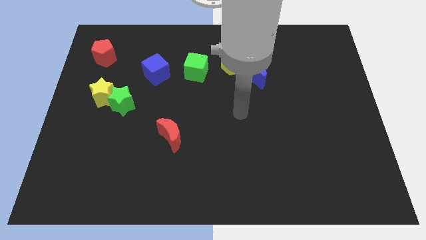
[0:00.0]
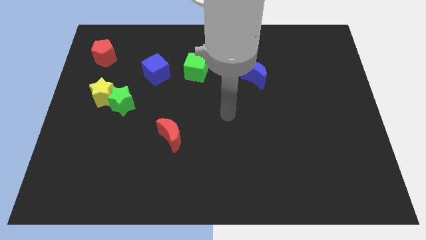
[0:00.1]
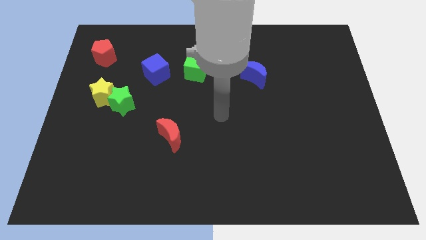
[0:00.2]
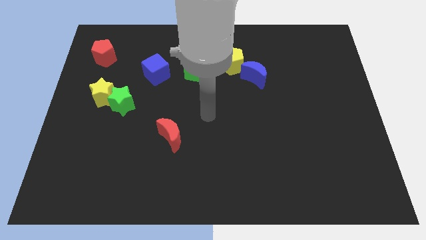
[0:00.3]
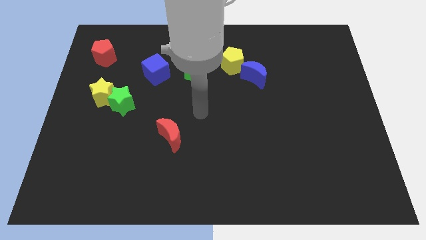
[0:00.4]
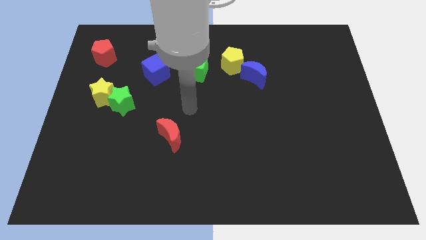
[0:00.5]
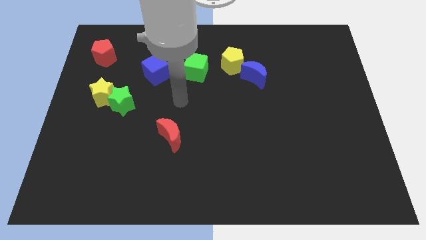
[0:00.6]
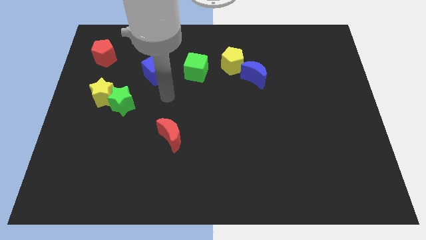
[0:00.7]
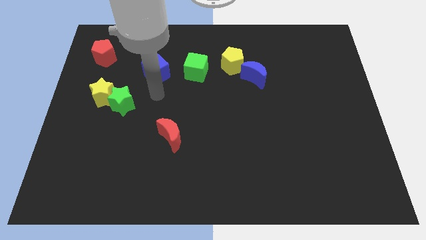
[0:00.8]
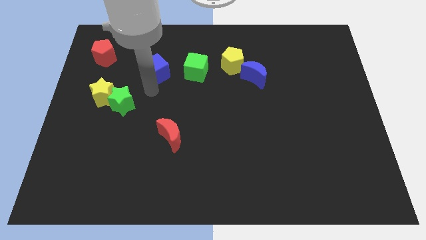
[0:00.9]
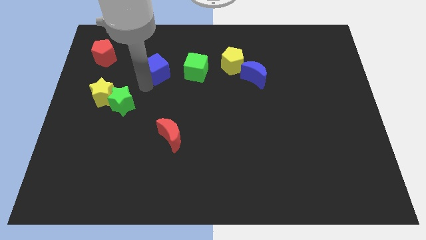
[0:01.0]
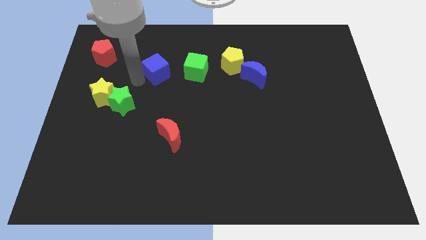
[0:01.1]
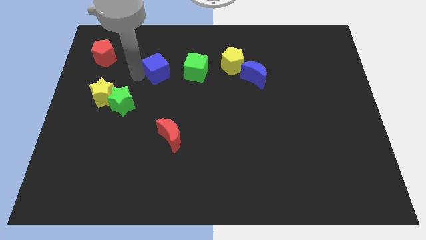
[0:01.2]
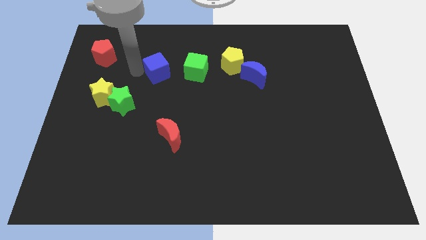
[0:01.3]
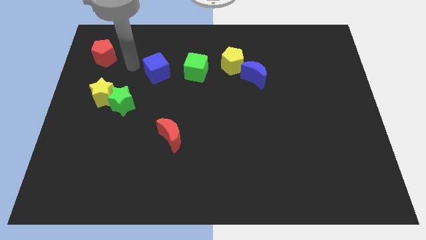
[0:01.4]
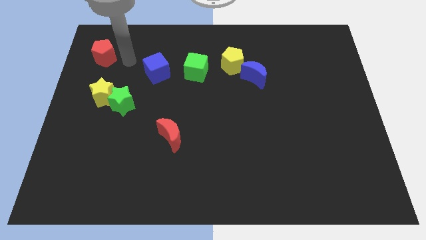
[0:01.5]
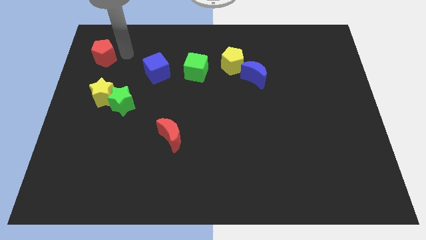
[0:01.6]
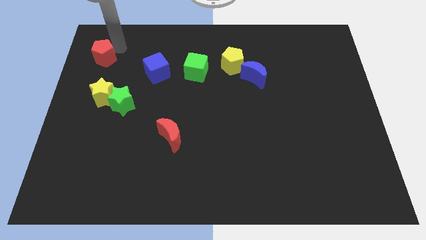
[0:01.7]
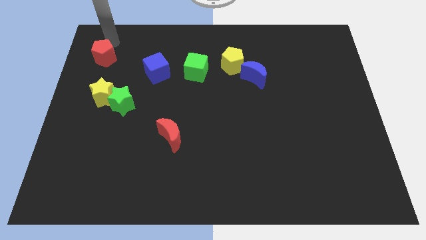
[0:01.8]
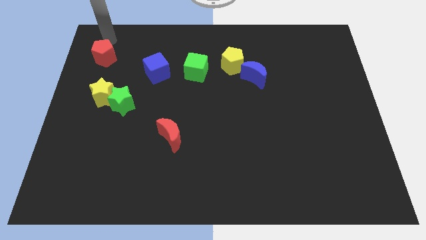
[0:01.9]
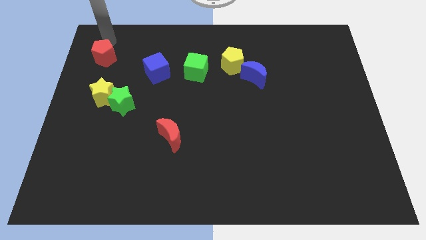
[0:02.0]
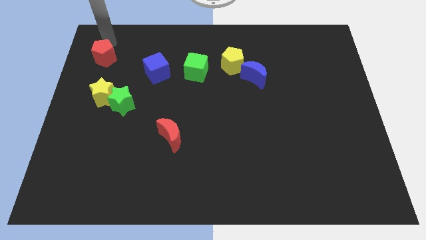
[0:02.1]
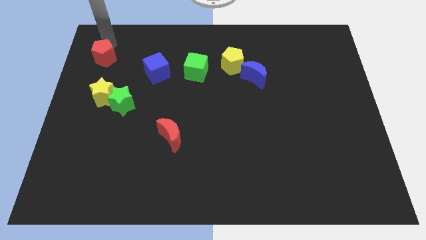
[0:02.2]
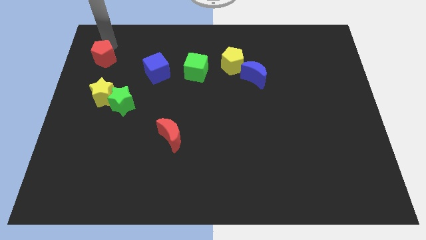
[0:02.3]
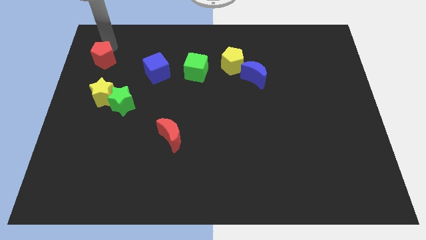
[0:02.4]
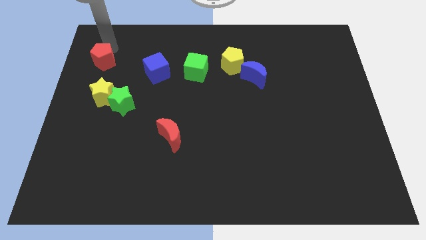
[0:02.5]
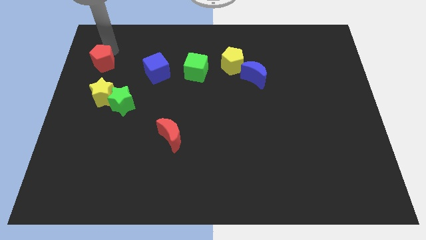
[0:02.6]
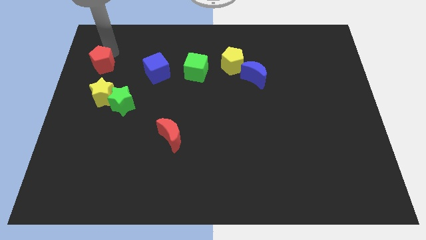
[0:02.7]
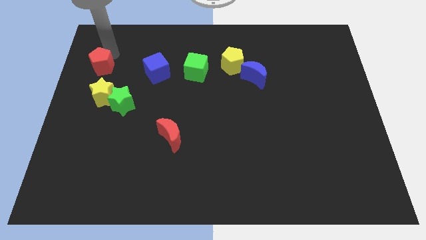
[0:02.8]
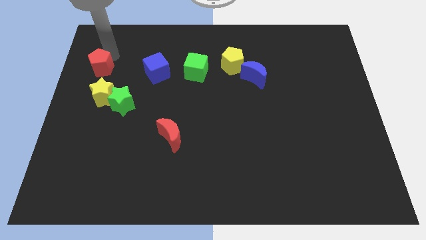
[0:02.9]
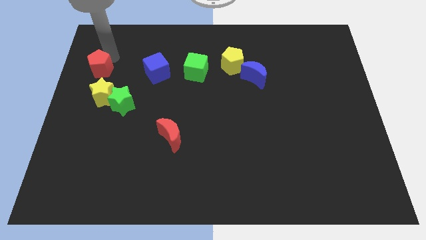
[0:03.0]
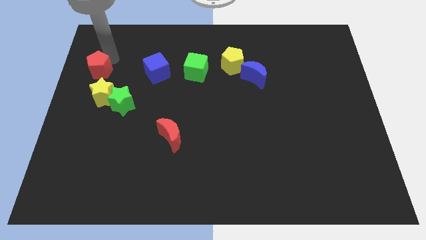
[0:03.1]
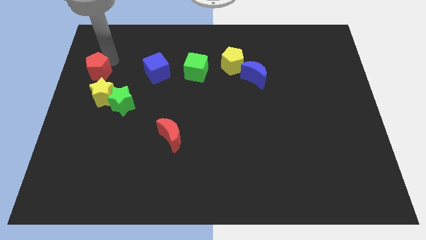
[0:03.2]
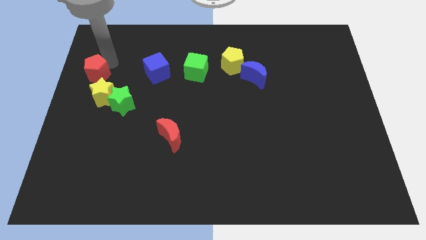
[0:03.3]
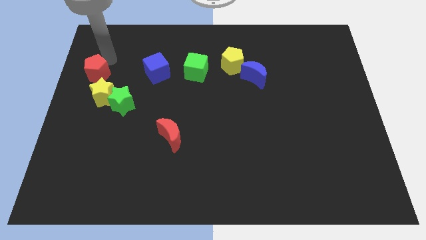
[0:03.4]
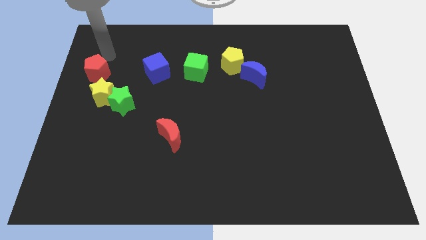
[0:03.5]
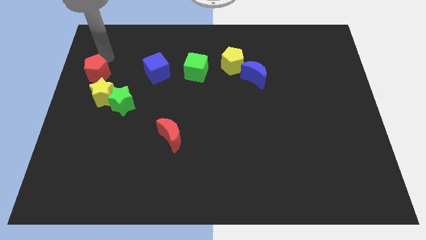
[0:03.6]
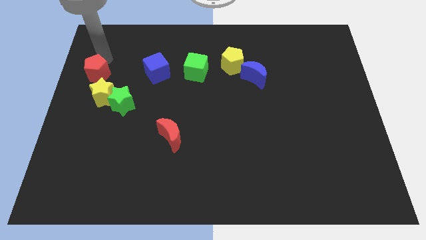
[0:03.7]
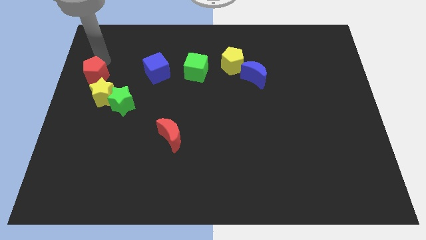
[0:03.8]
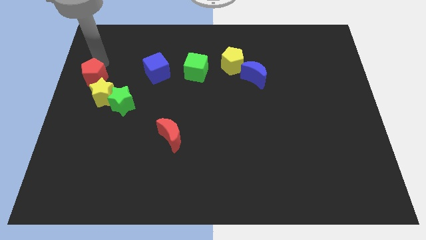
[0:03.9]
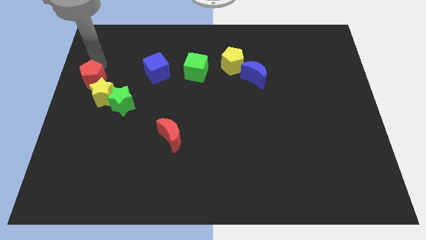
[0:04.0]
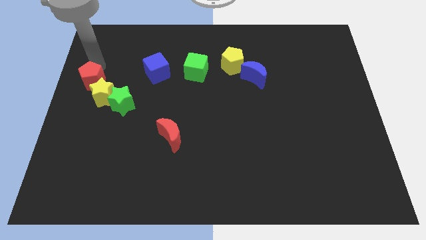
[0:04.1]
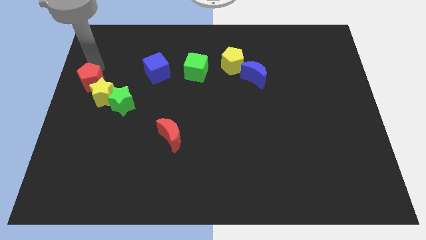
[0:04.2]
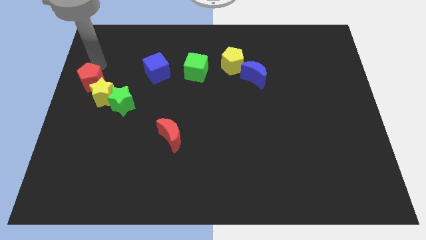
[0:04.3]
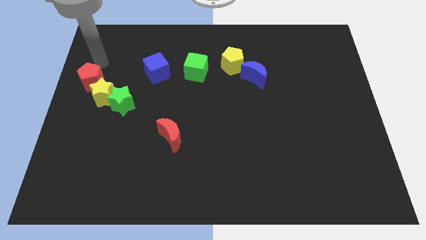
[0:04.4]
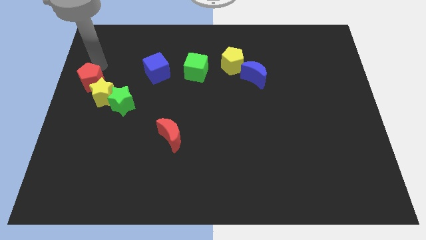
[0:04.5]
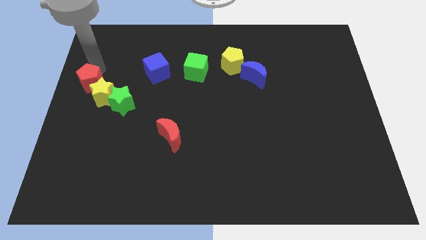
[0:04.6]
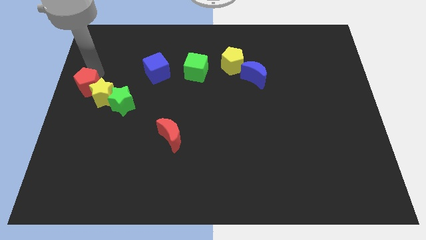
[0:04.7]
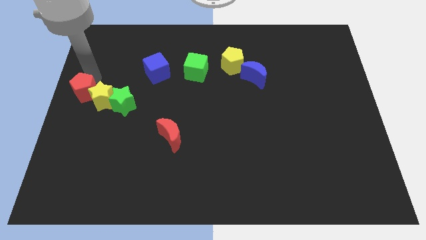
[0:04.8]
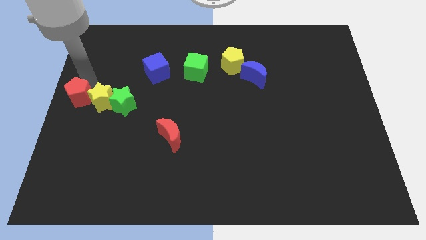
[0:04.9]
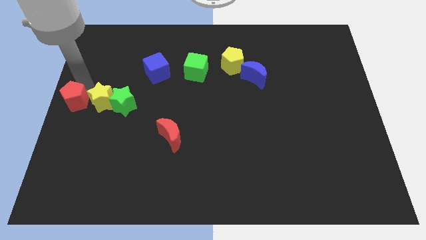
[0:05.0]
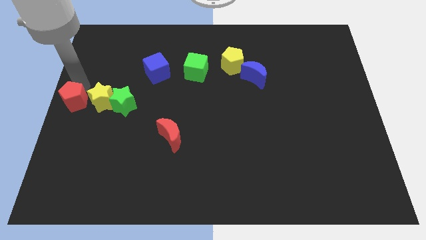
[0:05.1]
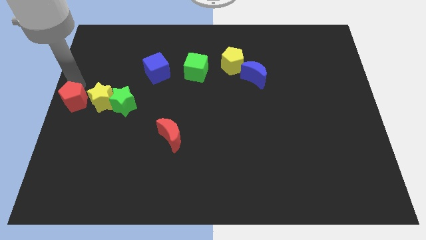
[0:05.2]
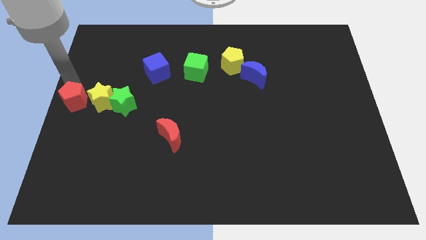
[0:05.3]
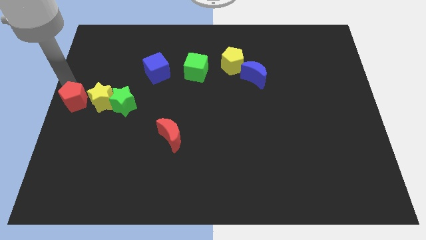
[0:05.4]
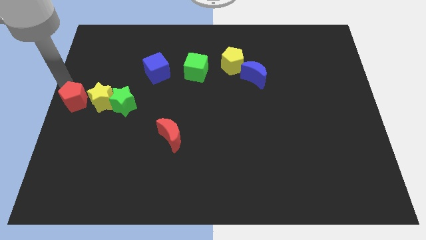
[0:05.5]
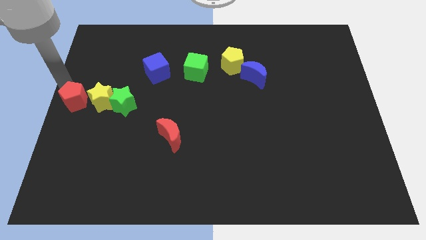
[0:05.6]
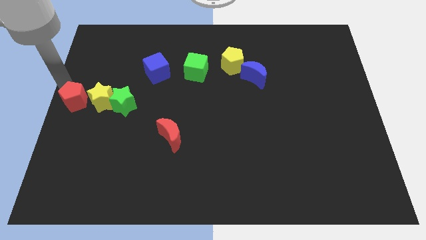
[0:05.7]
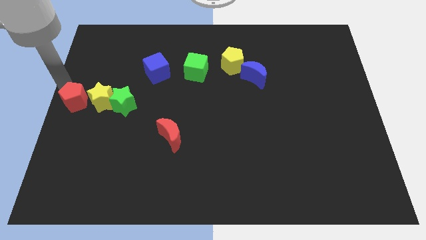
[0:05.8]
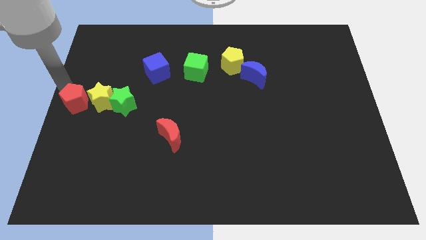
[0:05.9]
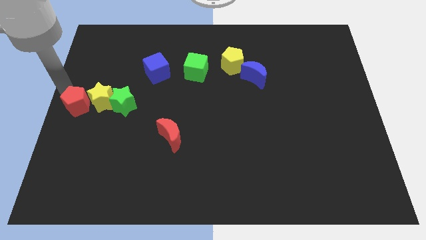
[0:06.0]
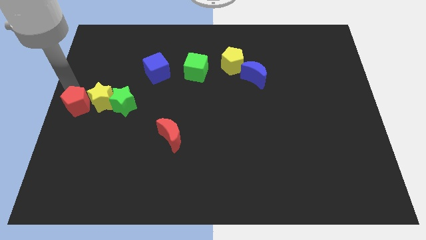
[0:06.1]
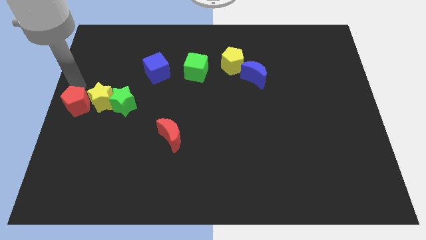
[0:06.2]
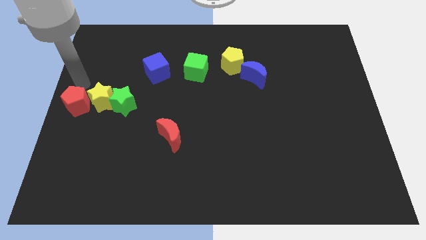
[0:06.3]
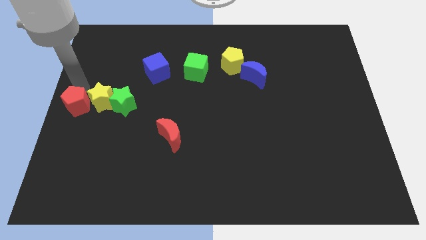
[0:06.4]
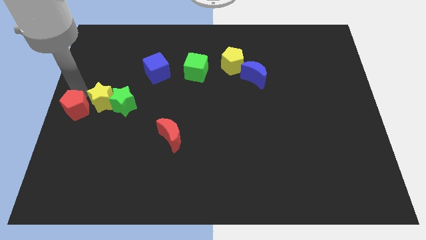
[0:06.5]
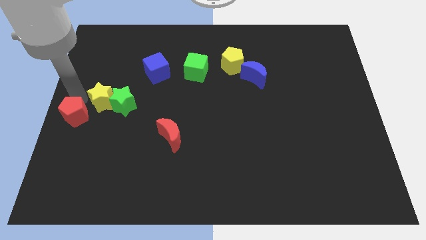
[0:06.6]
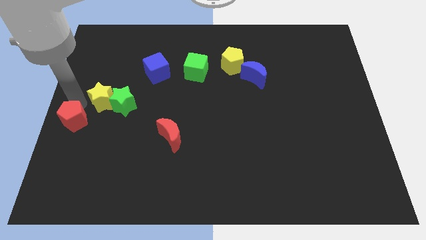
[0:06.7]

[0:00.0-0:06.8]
move the red pentagon down

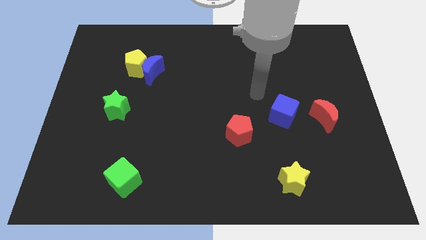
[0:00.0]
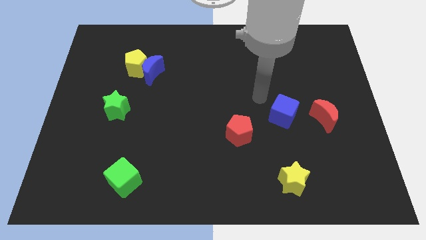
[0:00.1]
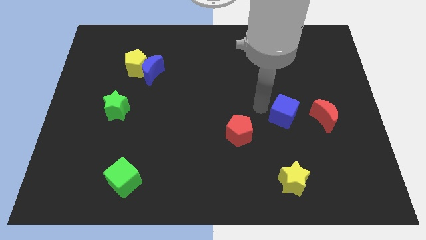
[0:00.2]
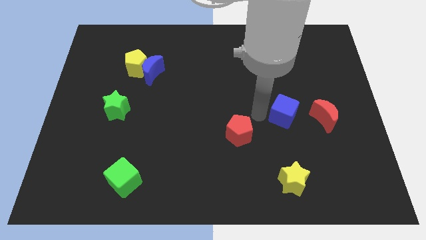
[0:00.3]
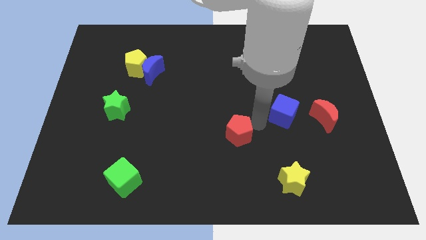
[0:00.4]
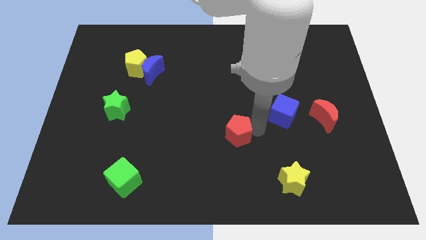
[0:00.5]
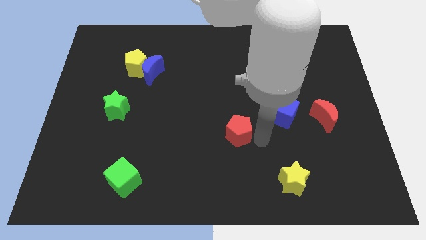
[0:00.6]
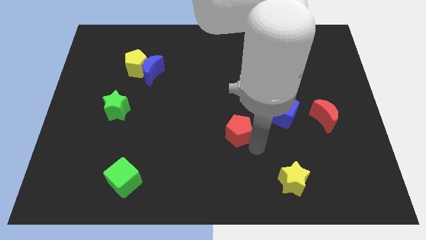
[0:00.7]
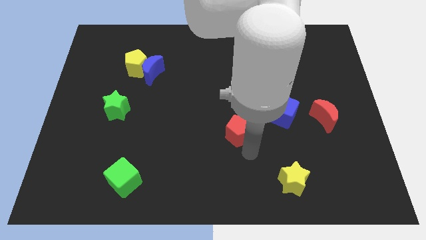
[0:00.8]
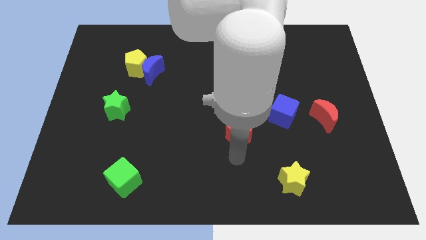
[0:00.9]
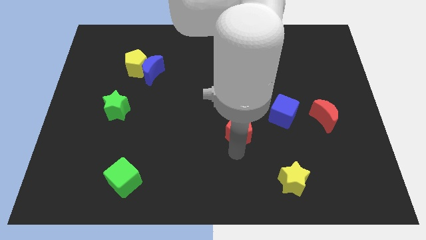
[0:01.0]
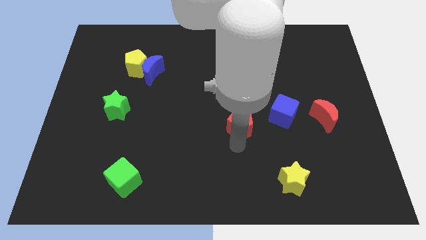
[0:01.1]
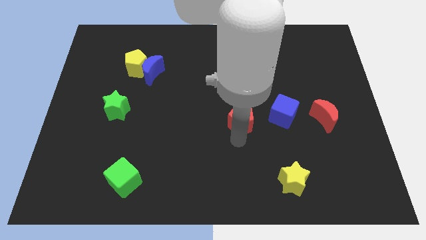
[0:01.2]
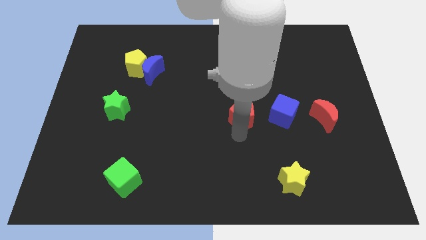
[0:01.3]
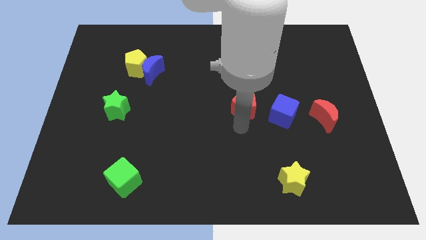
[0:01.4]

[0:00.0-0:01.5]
slightly move the red pentagon up
